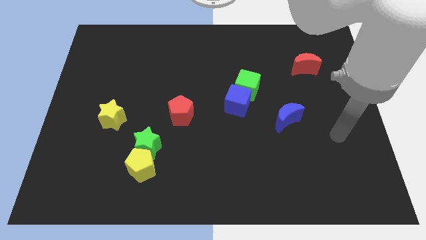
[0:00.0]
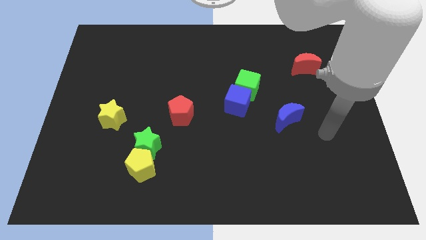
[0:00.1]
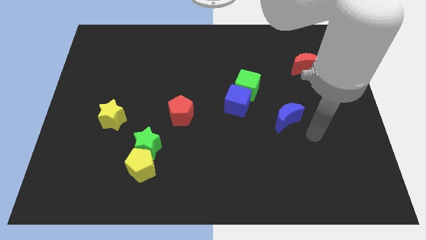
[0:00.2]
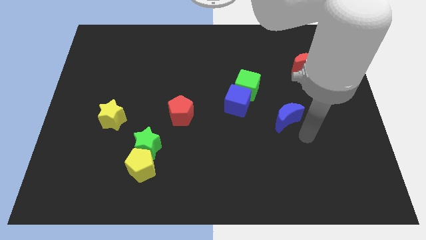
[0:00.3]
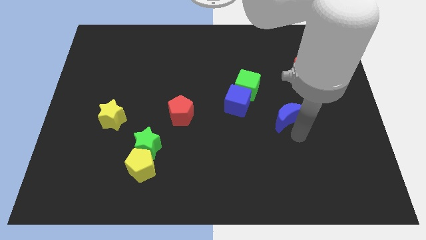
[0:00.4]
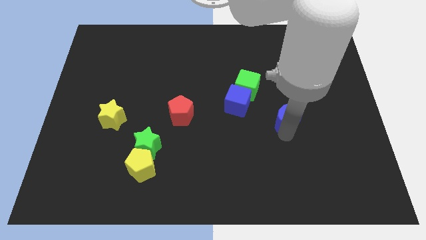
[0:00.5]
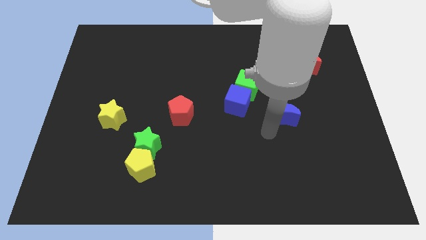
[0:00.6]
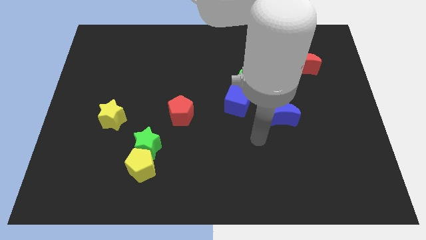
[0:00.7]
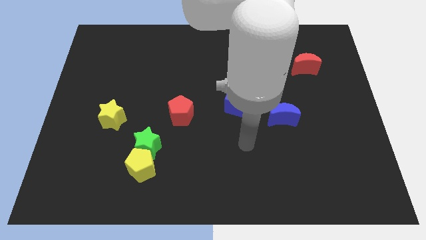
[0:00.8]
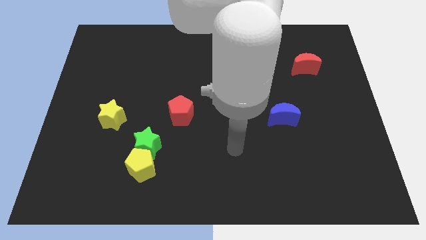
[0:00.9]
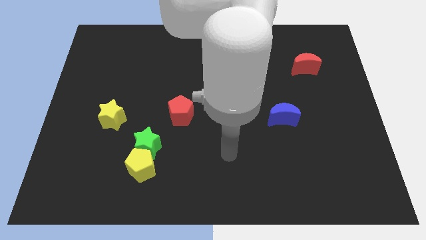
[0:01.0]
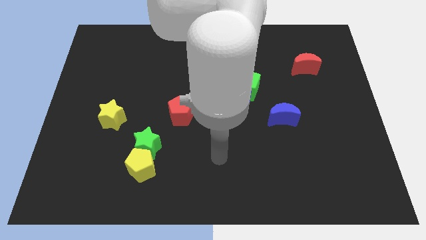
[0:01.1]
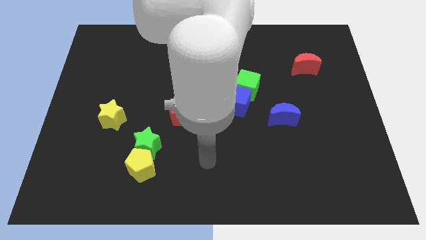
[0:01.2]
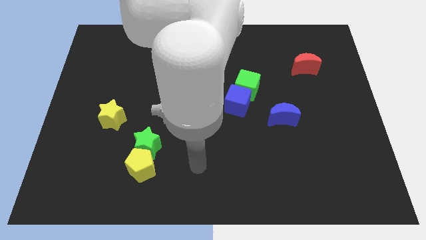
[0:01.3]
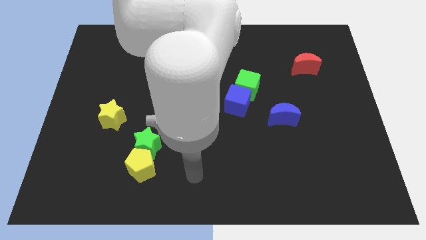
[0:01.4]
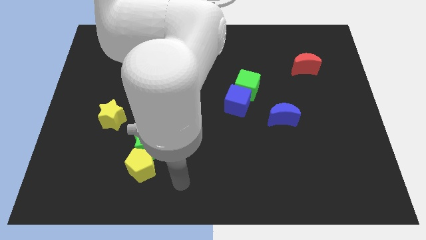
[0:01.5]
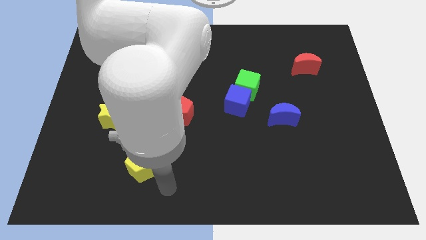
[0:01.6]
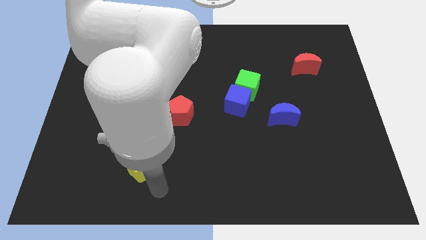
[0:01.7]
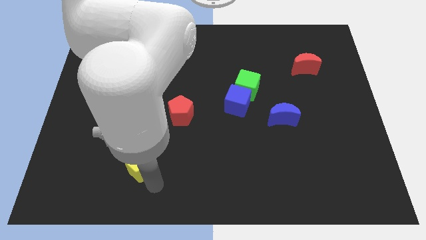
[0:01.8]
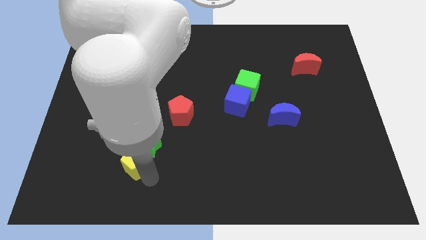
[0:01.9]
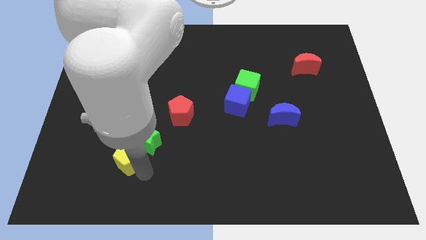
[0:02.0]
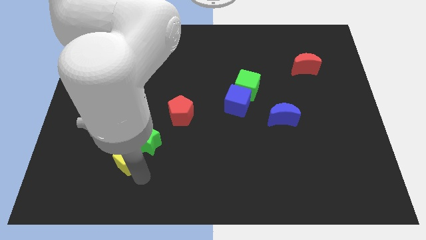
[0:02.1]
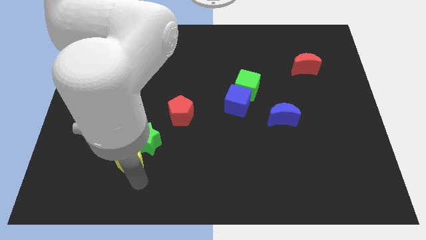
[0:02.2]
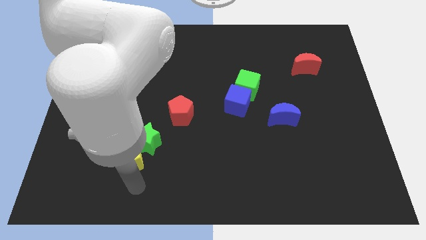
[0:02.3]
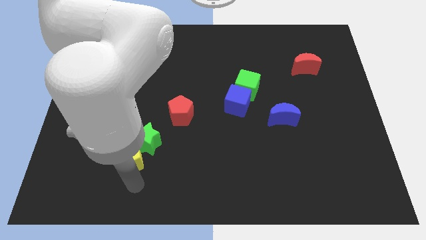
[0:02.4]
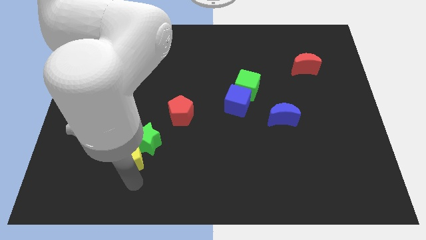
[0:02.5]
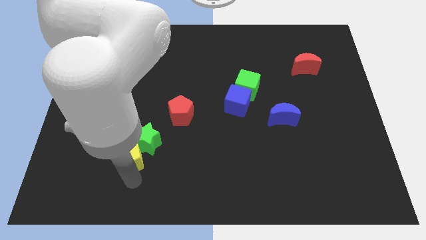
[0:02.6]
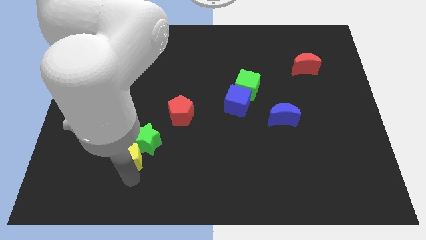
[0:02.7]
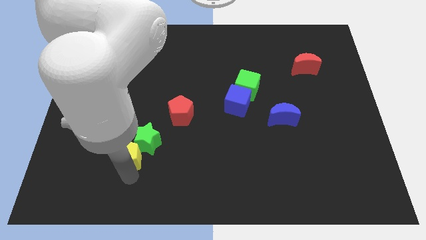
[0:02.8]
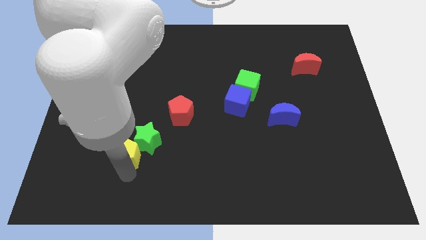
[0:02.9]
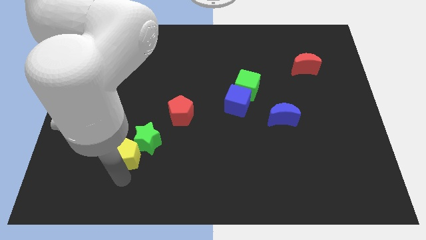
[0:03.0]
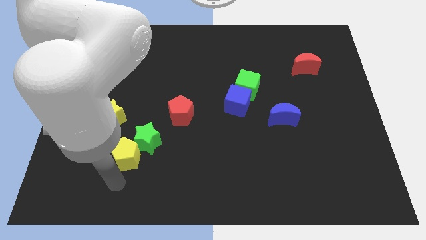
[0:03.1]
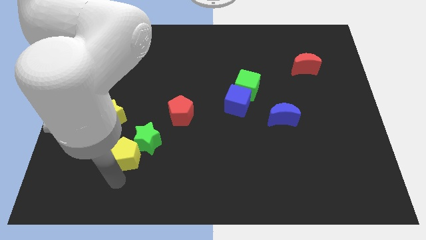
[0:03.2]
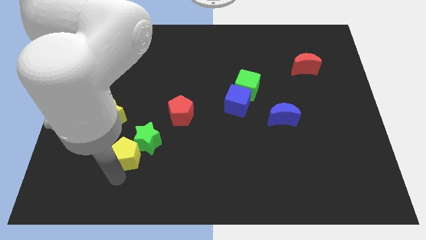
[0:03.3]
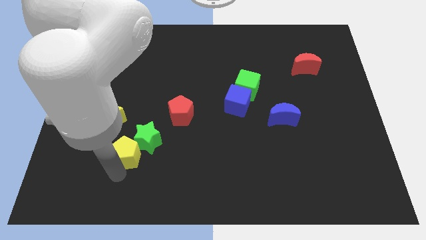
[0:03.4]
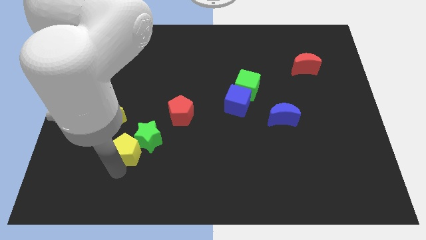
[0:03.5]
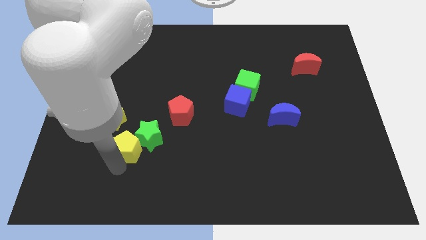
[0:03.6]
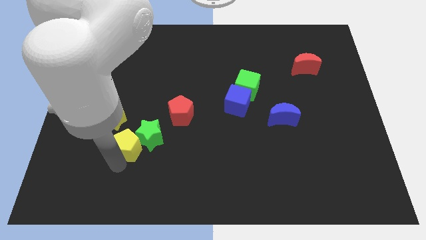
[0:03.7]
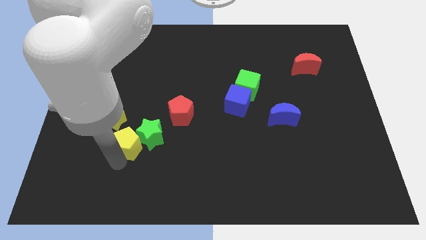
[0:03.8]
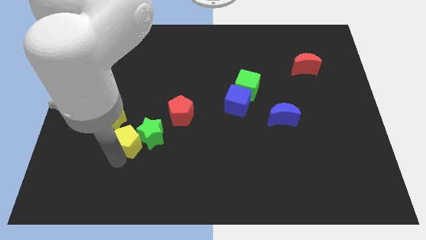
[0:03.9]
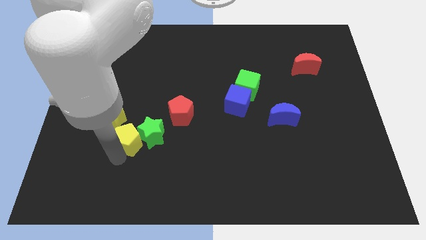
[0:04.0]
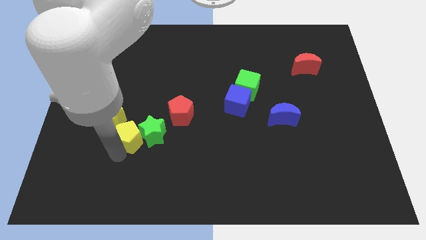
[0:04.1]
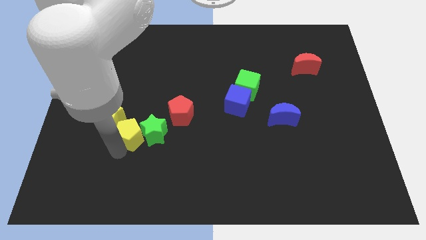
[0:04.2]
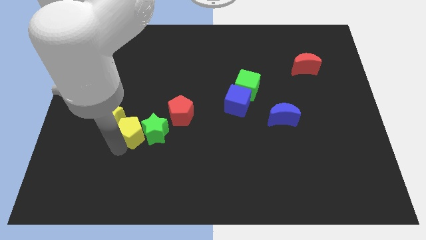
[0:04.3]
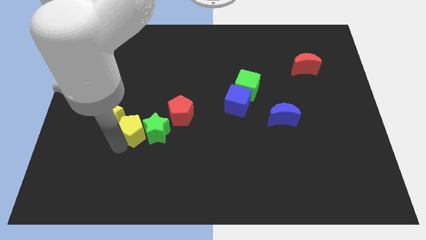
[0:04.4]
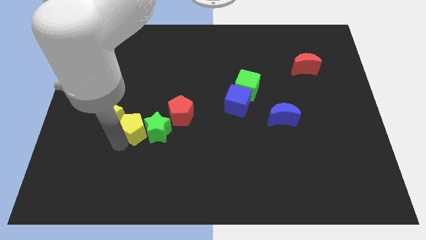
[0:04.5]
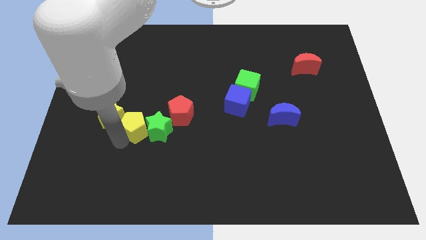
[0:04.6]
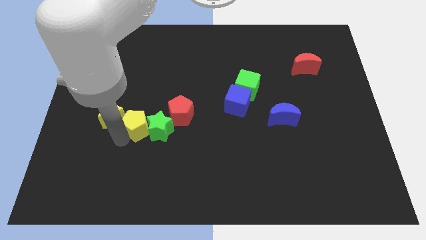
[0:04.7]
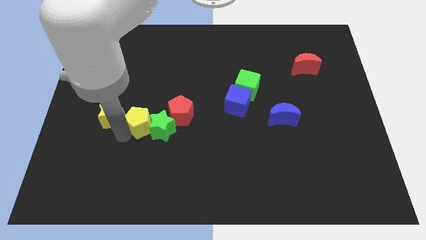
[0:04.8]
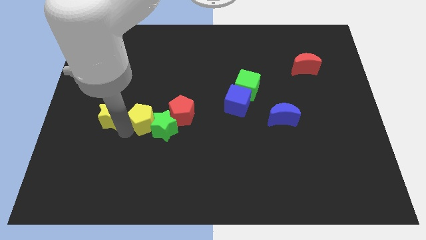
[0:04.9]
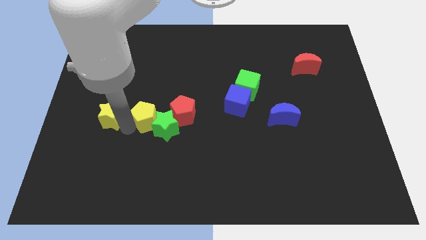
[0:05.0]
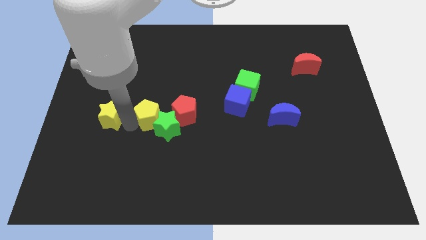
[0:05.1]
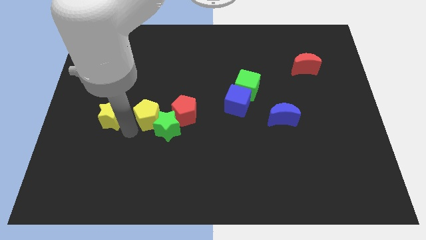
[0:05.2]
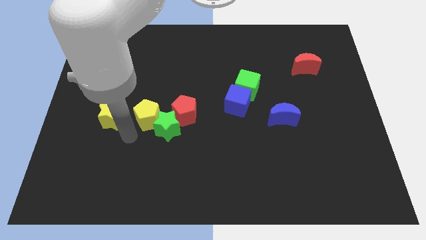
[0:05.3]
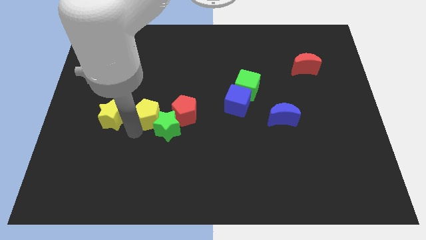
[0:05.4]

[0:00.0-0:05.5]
slide the yellow pentagon to the top of the green star

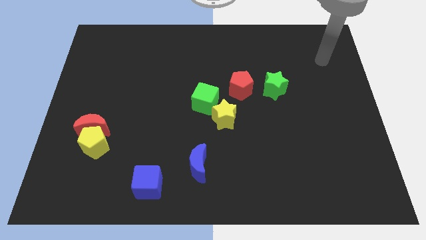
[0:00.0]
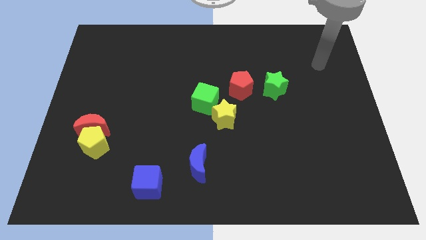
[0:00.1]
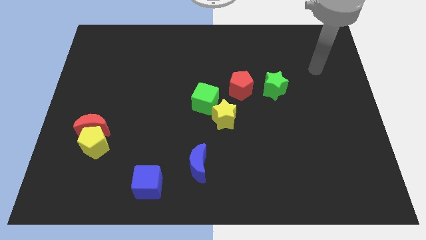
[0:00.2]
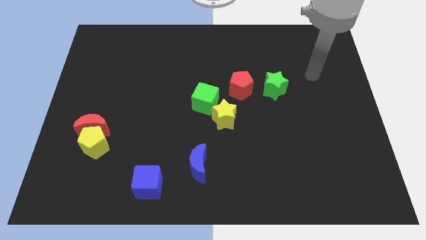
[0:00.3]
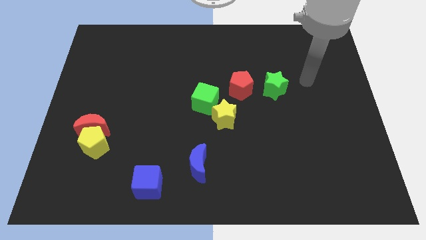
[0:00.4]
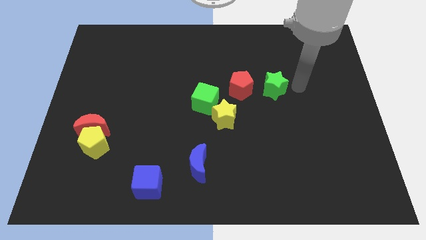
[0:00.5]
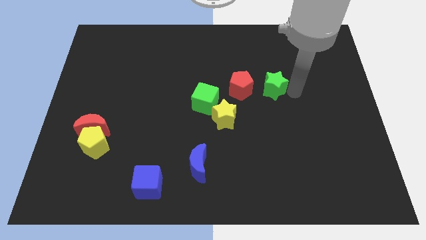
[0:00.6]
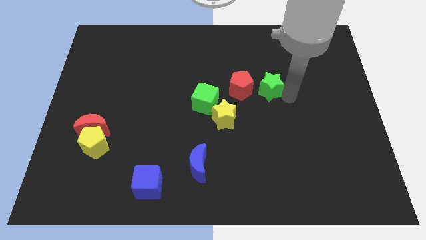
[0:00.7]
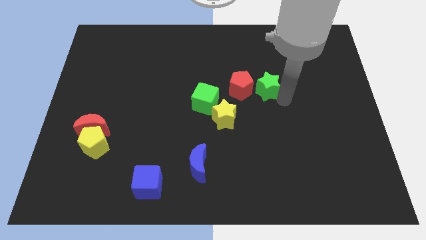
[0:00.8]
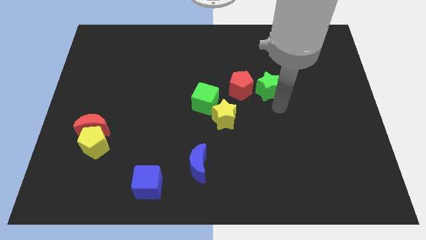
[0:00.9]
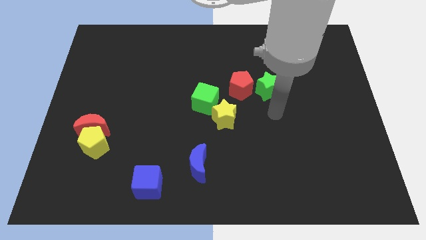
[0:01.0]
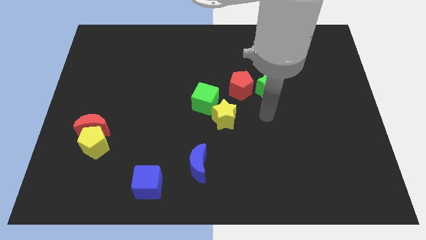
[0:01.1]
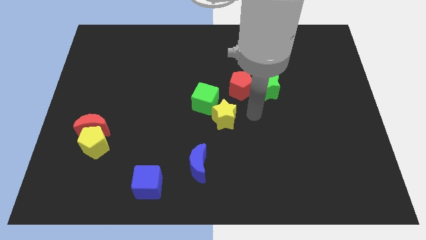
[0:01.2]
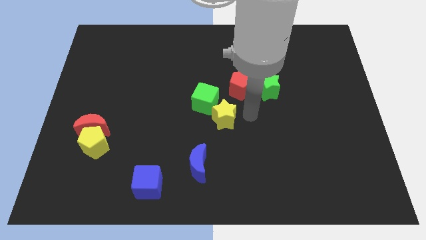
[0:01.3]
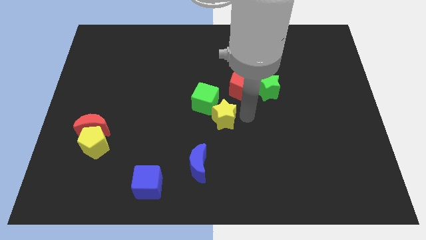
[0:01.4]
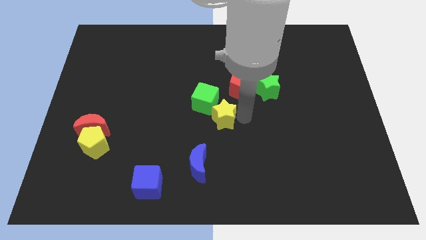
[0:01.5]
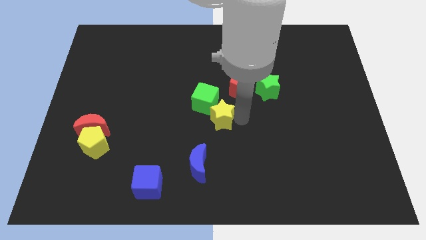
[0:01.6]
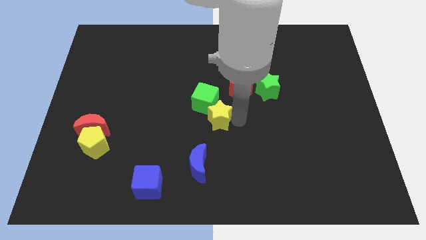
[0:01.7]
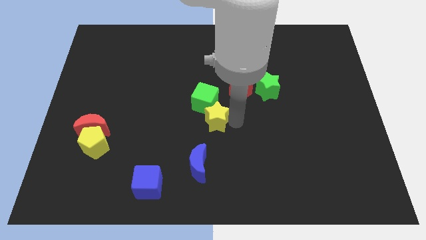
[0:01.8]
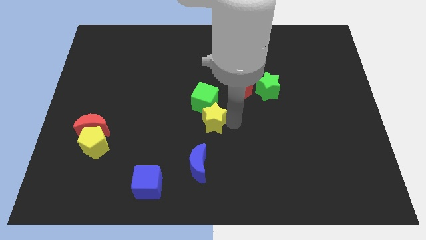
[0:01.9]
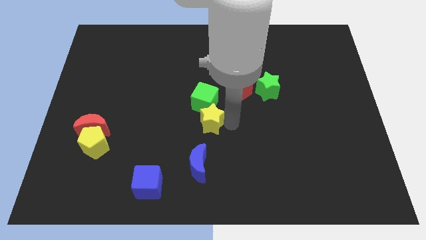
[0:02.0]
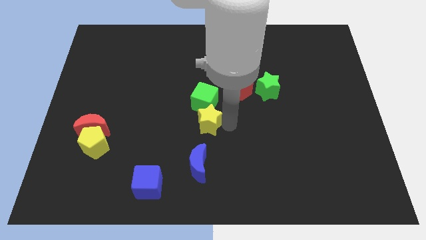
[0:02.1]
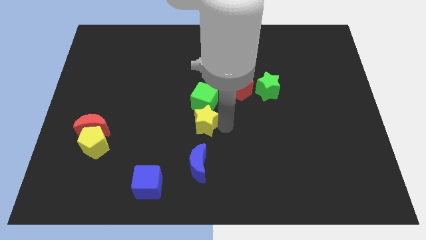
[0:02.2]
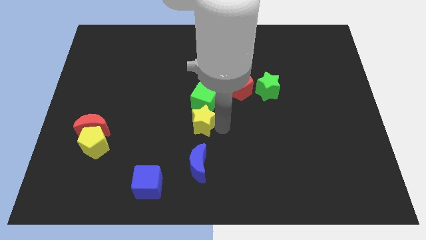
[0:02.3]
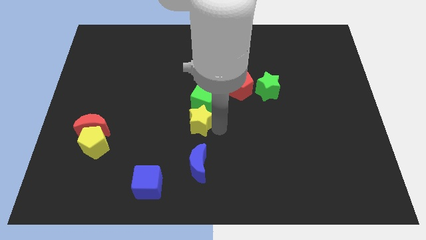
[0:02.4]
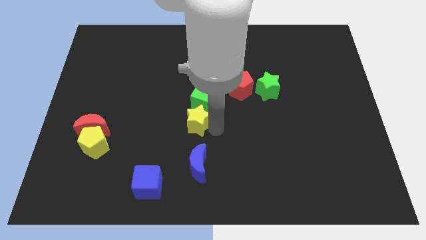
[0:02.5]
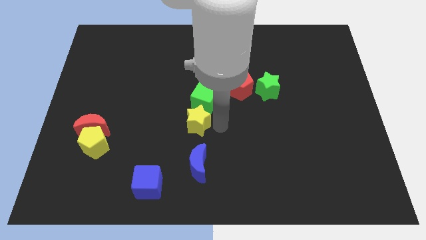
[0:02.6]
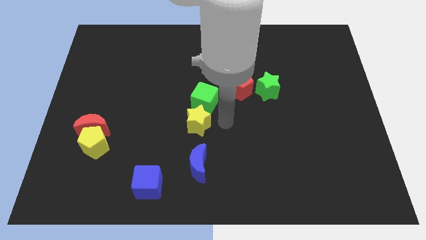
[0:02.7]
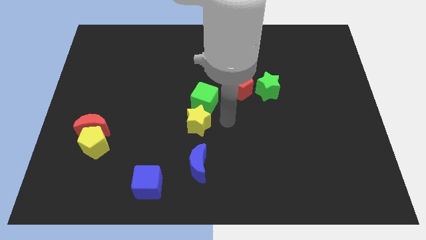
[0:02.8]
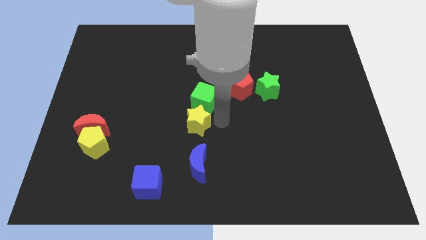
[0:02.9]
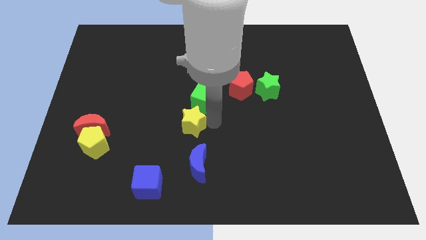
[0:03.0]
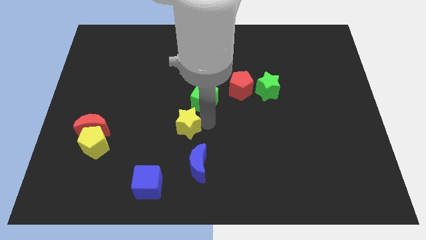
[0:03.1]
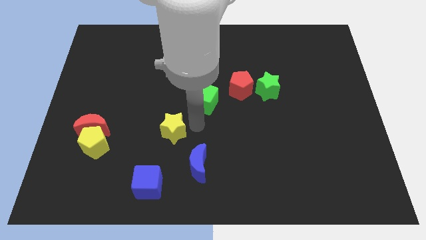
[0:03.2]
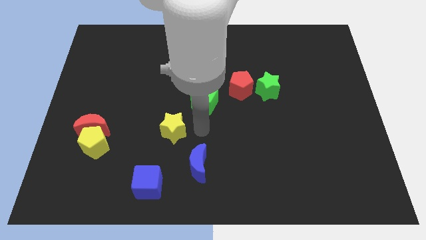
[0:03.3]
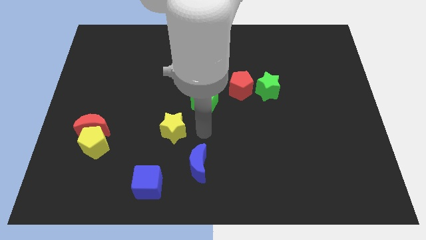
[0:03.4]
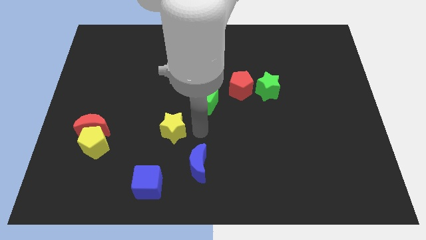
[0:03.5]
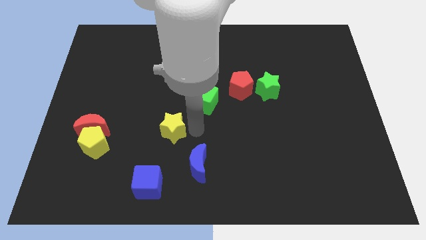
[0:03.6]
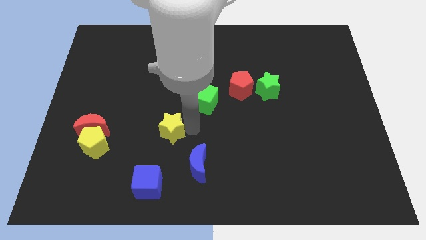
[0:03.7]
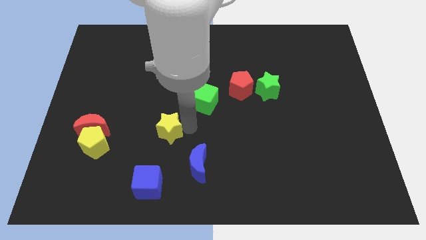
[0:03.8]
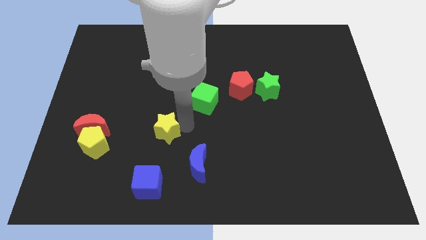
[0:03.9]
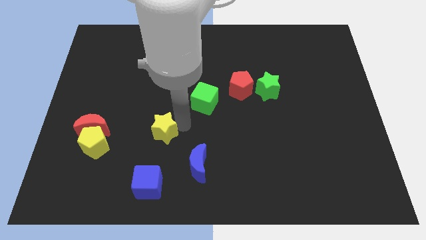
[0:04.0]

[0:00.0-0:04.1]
push the yellow star to the right of the red moon
